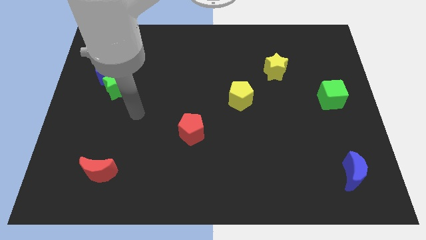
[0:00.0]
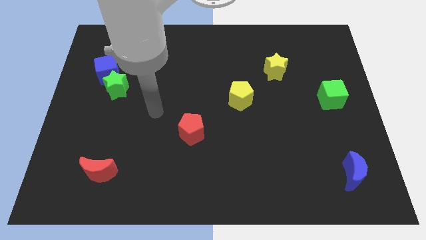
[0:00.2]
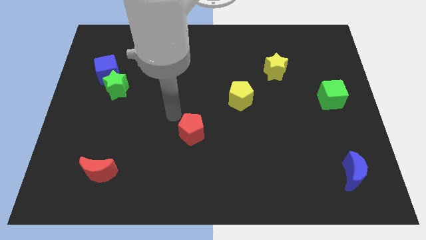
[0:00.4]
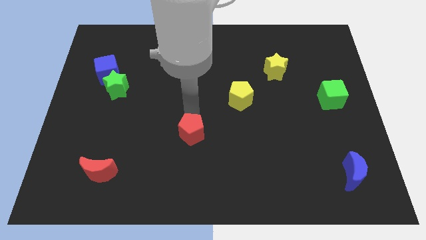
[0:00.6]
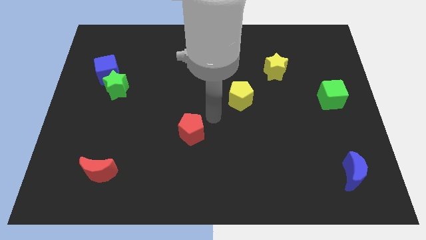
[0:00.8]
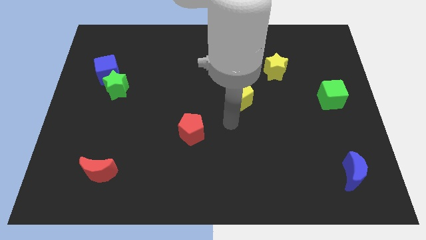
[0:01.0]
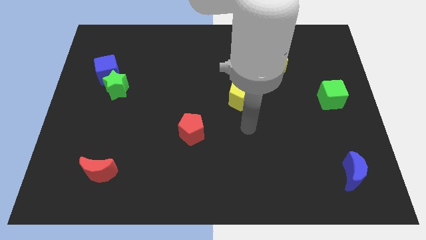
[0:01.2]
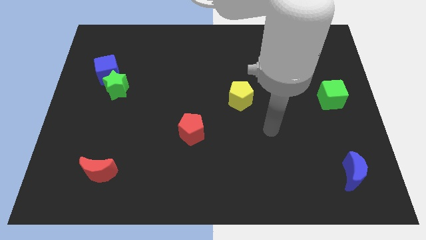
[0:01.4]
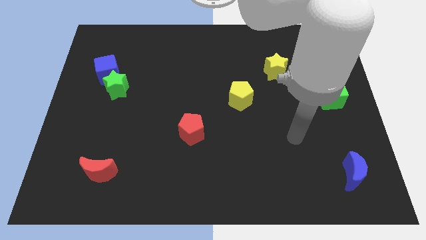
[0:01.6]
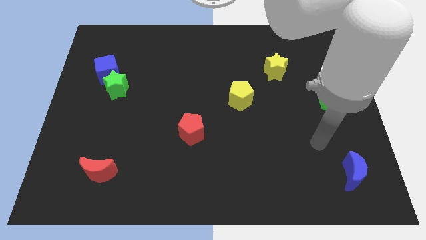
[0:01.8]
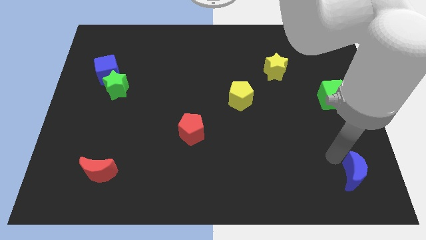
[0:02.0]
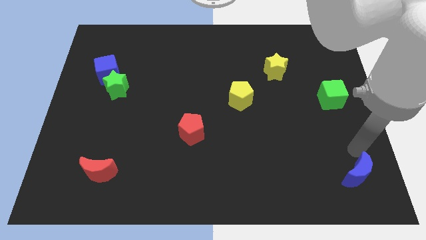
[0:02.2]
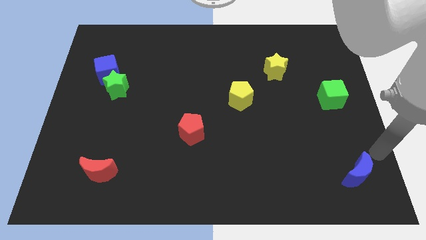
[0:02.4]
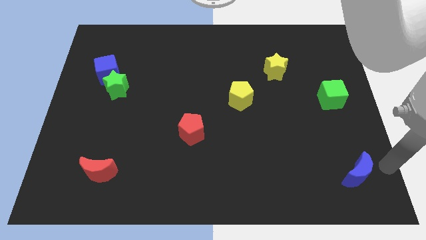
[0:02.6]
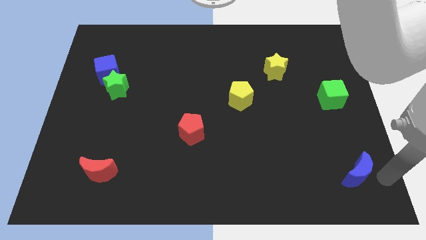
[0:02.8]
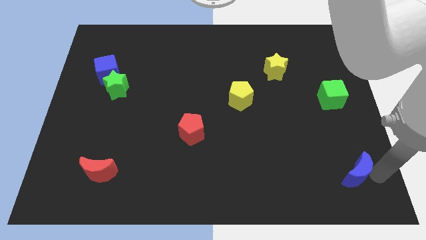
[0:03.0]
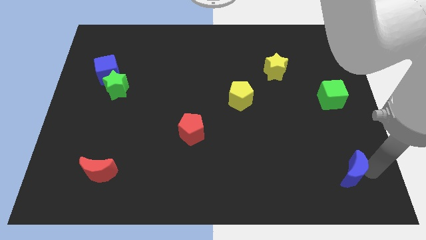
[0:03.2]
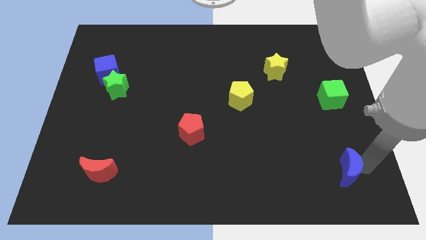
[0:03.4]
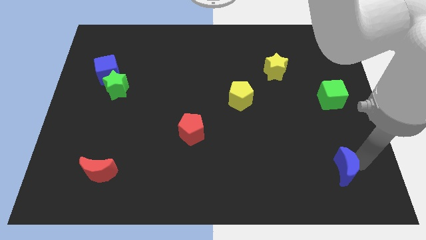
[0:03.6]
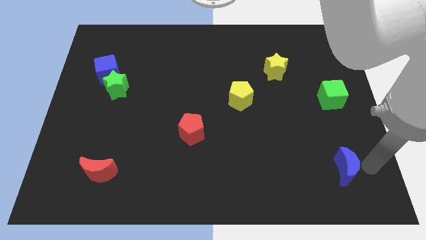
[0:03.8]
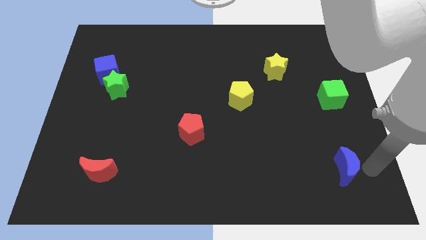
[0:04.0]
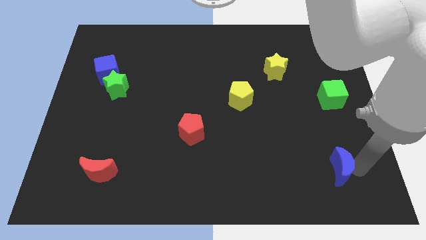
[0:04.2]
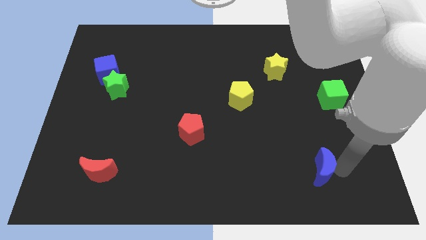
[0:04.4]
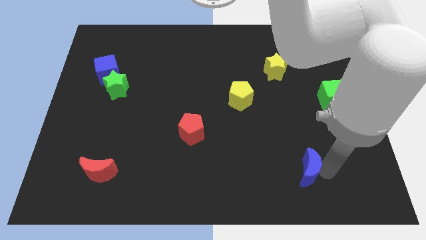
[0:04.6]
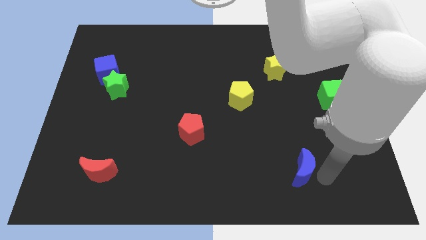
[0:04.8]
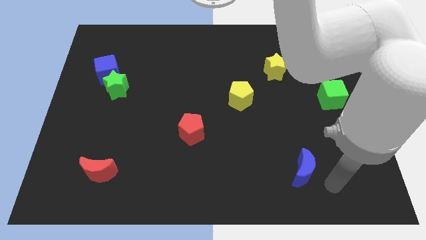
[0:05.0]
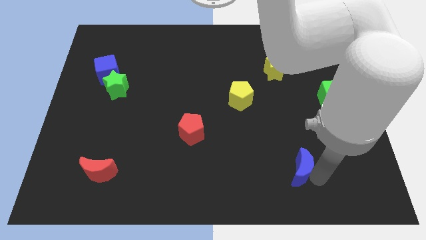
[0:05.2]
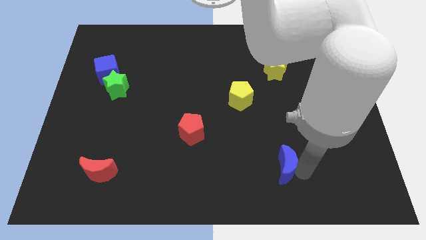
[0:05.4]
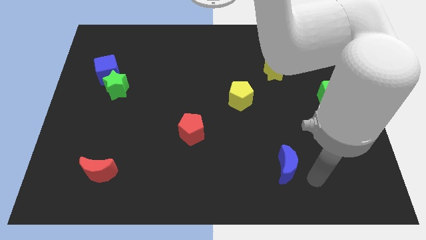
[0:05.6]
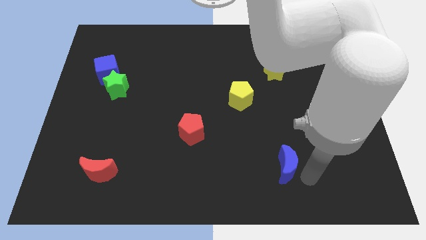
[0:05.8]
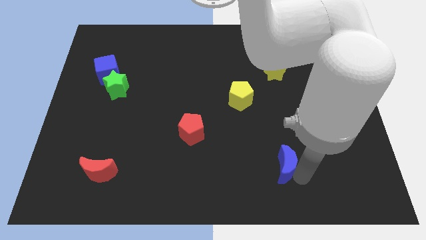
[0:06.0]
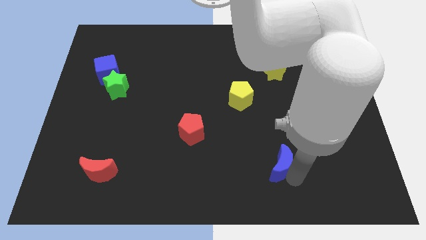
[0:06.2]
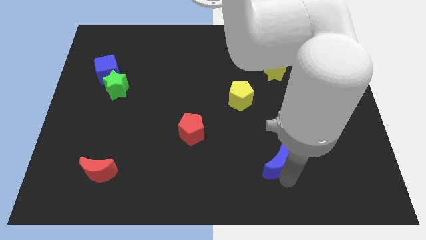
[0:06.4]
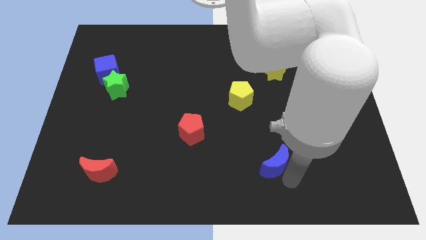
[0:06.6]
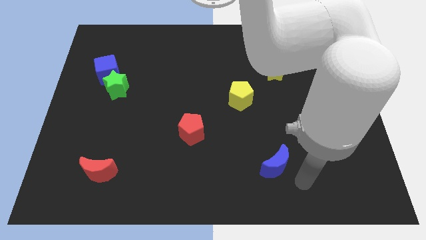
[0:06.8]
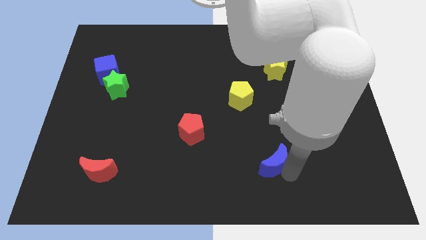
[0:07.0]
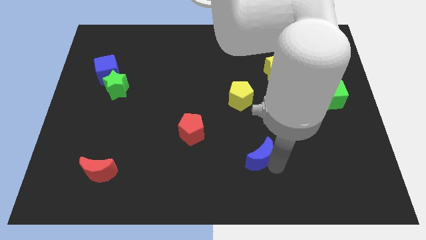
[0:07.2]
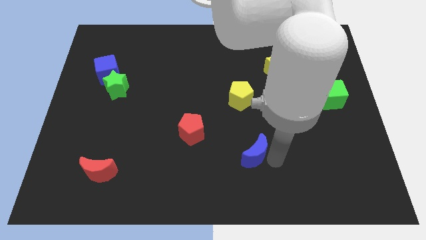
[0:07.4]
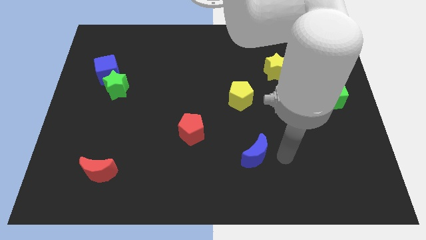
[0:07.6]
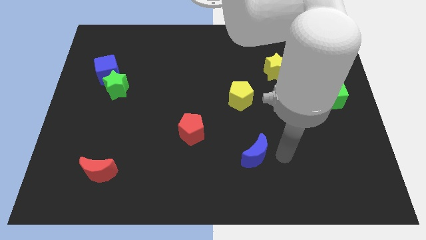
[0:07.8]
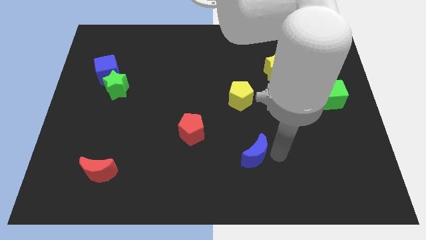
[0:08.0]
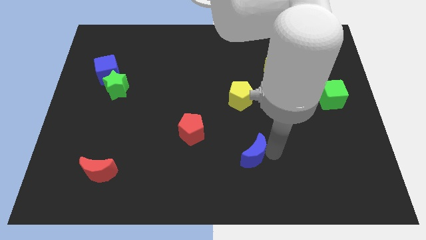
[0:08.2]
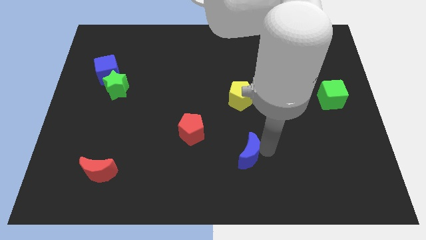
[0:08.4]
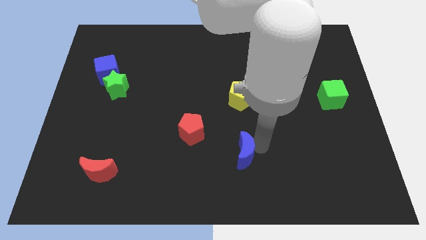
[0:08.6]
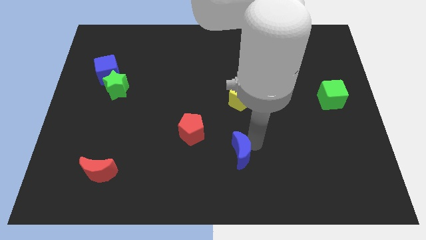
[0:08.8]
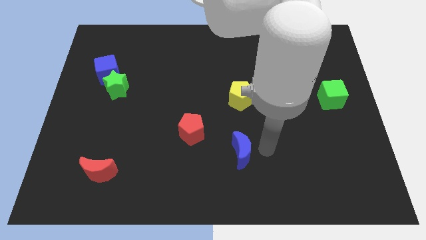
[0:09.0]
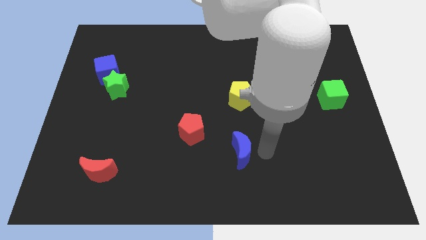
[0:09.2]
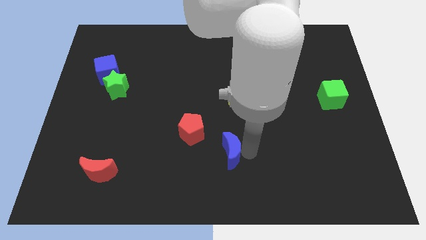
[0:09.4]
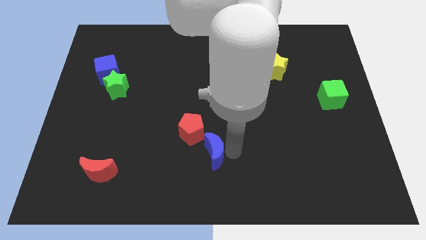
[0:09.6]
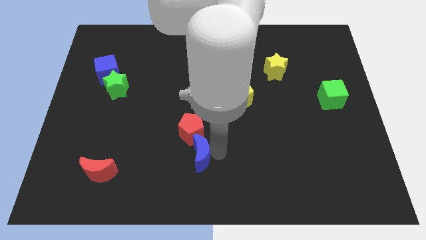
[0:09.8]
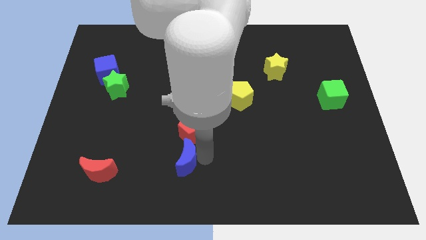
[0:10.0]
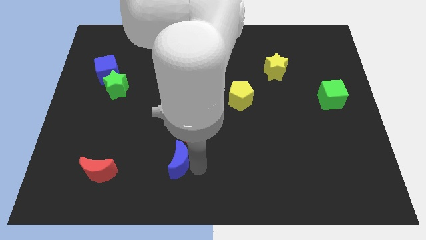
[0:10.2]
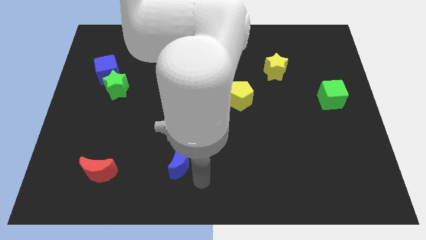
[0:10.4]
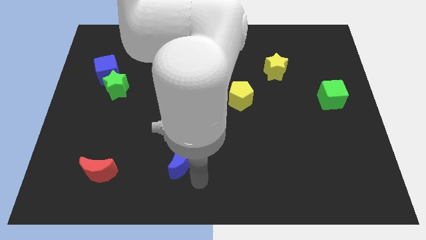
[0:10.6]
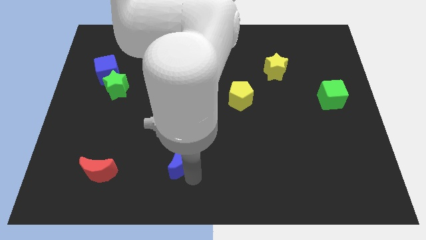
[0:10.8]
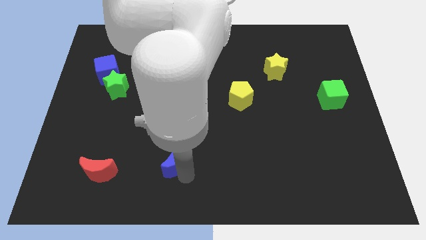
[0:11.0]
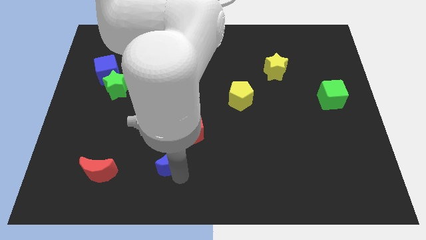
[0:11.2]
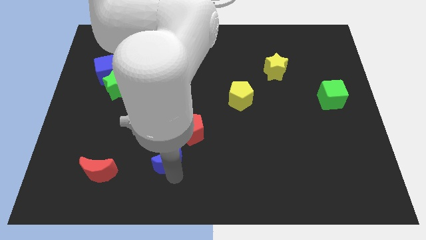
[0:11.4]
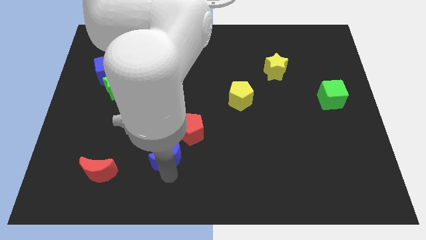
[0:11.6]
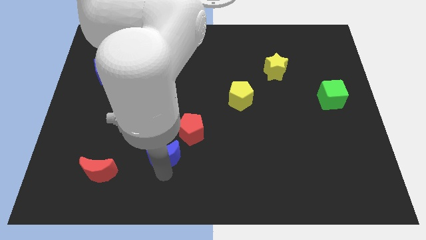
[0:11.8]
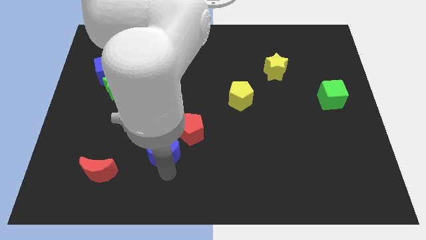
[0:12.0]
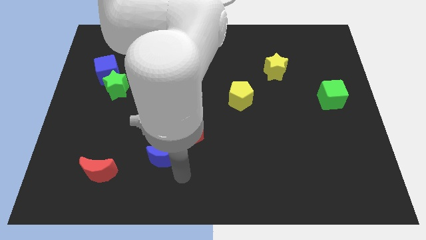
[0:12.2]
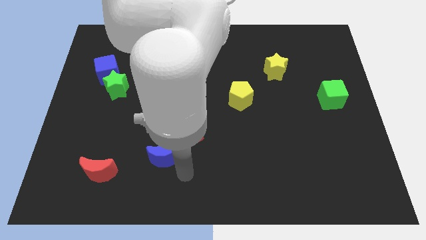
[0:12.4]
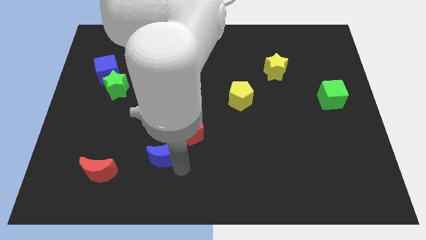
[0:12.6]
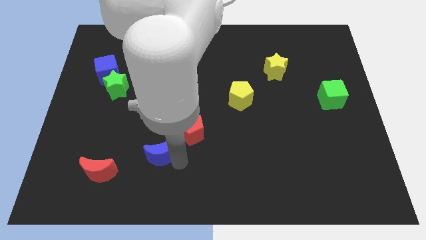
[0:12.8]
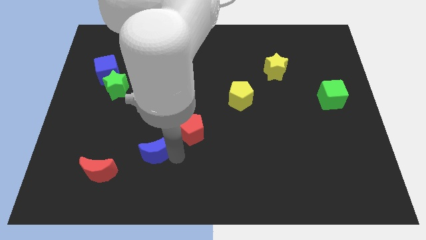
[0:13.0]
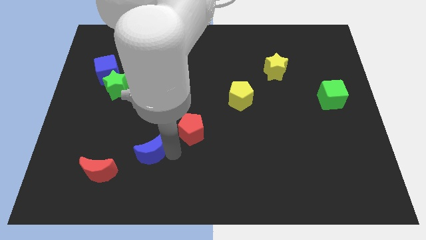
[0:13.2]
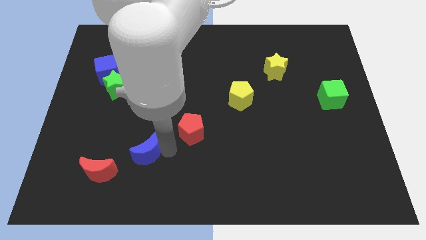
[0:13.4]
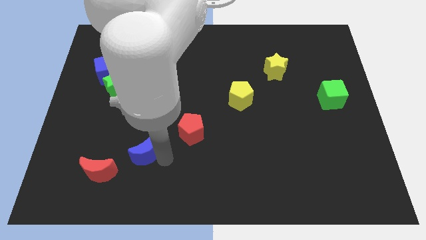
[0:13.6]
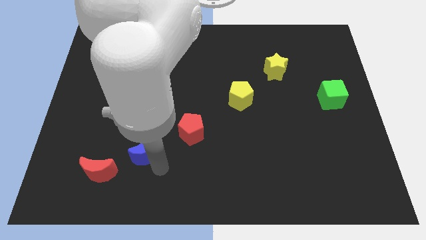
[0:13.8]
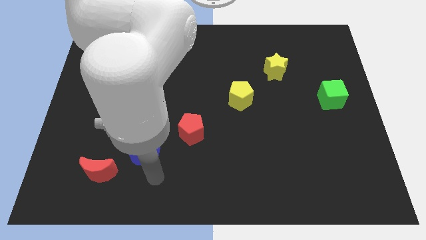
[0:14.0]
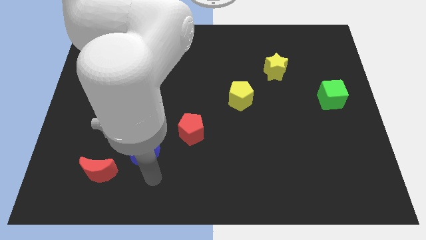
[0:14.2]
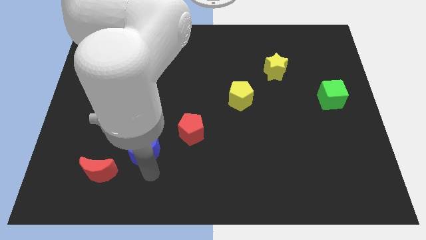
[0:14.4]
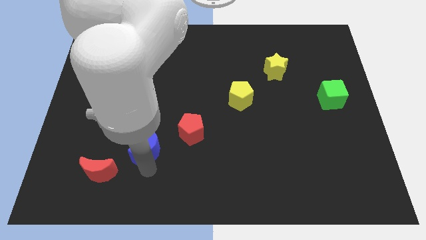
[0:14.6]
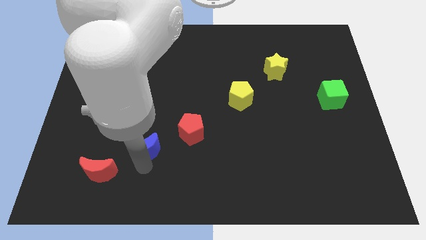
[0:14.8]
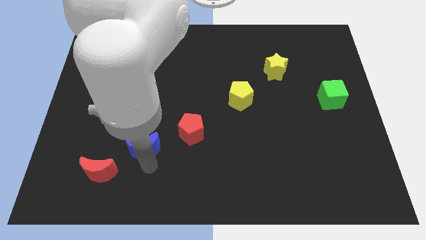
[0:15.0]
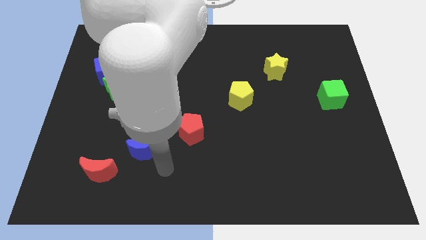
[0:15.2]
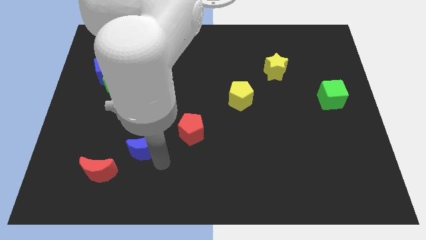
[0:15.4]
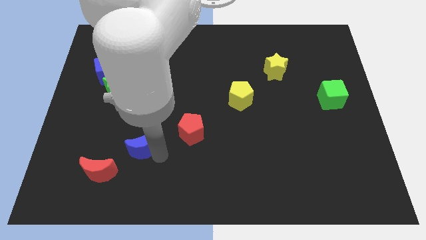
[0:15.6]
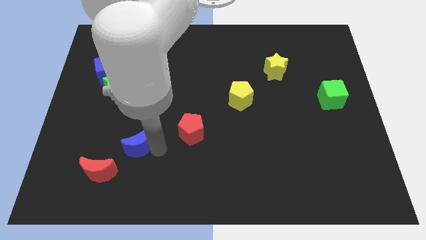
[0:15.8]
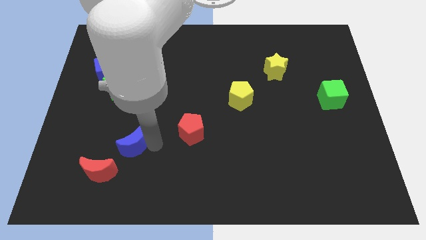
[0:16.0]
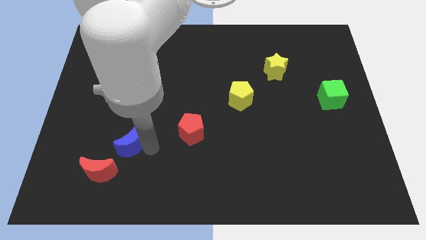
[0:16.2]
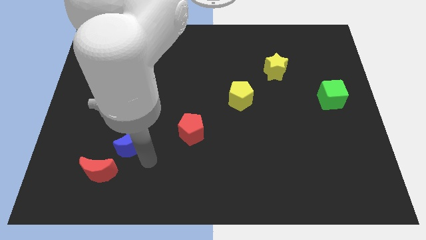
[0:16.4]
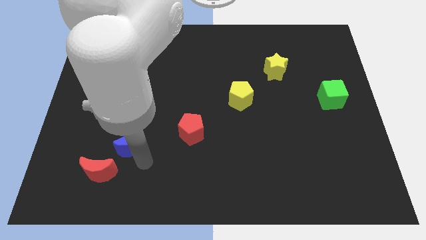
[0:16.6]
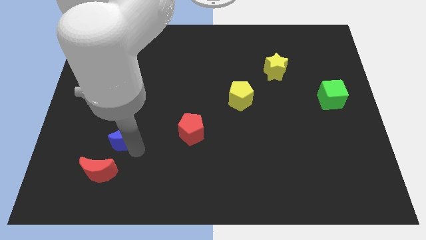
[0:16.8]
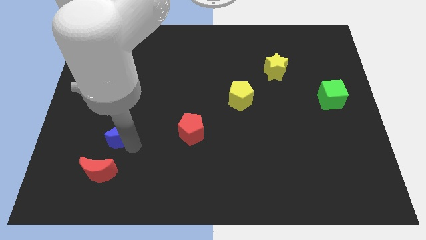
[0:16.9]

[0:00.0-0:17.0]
move the blue moon below the green star
